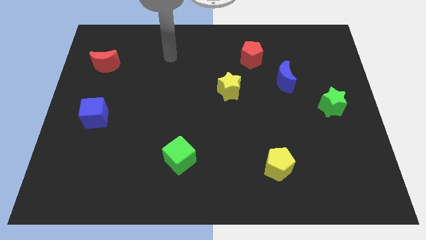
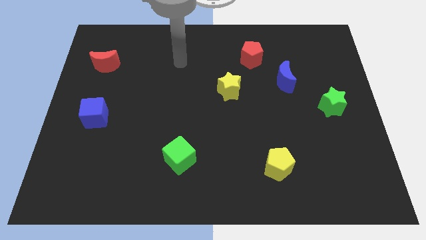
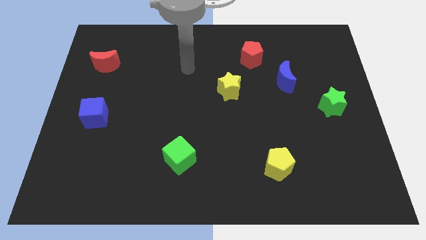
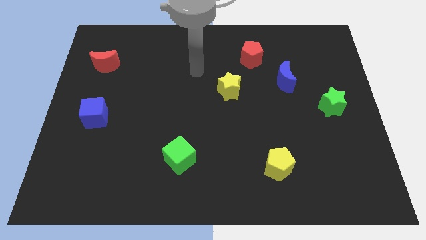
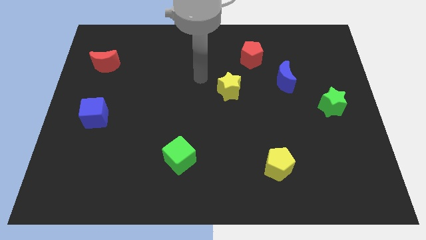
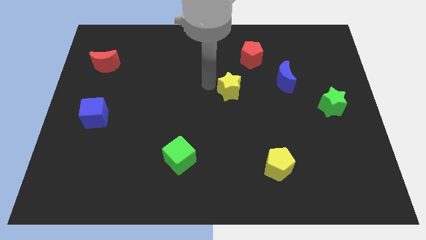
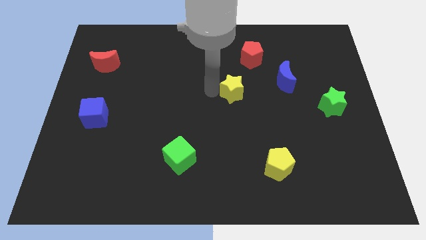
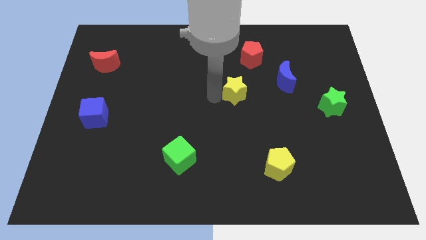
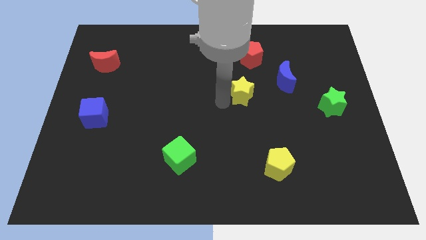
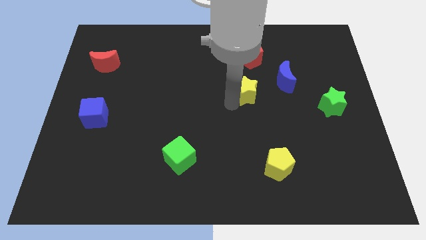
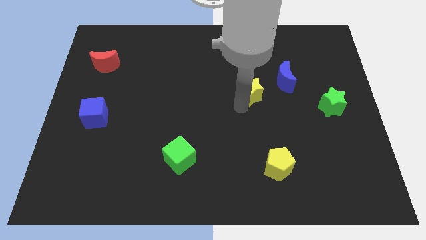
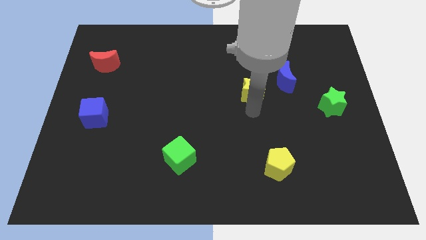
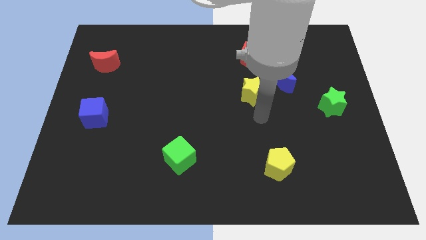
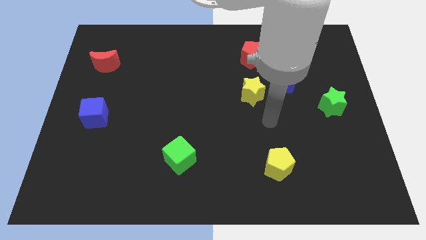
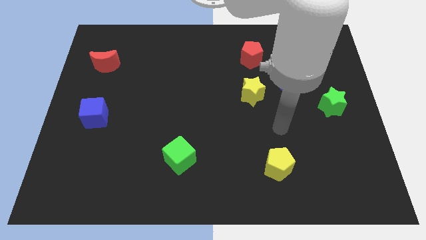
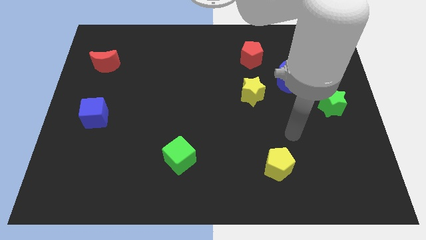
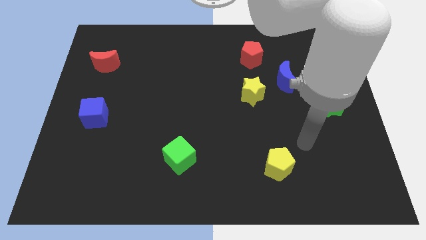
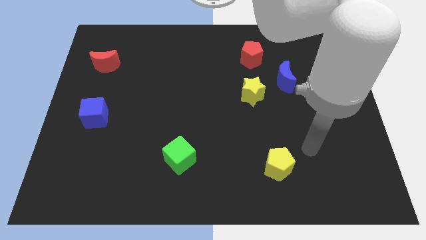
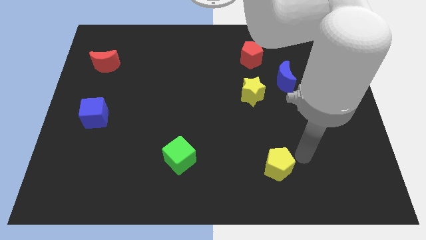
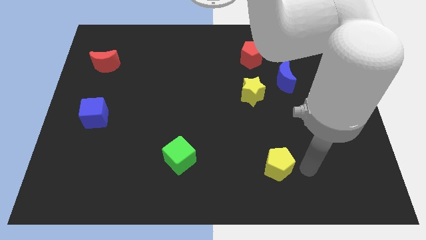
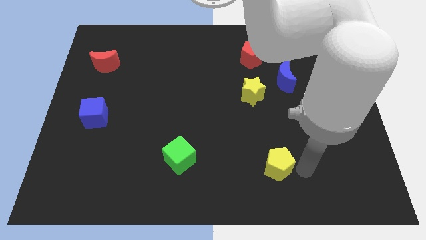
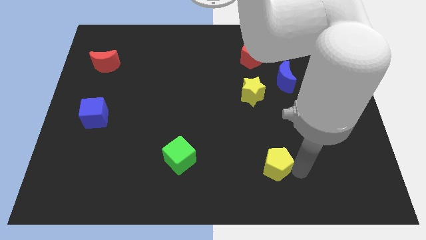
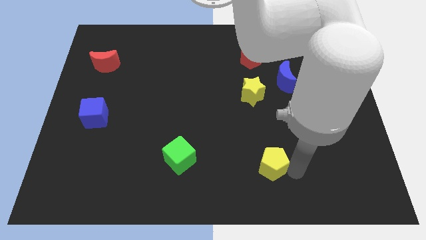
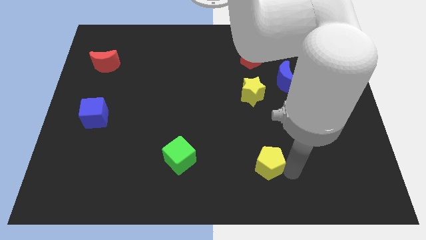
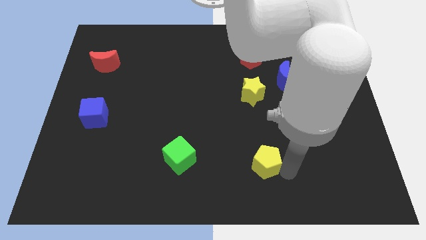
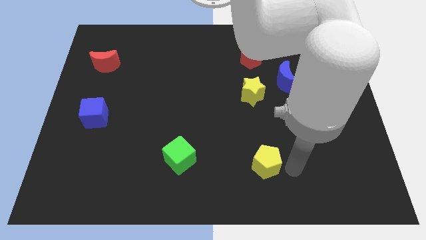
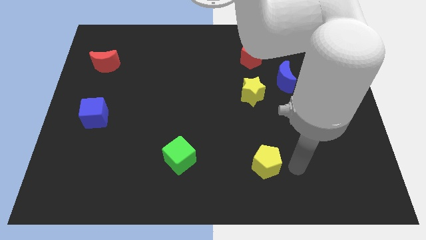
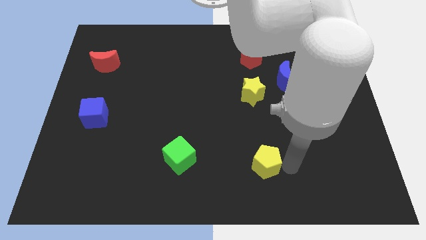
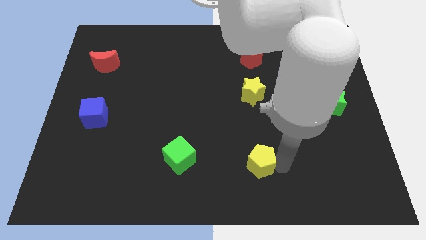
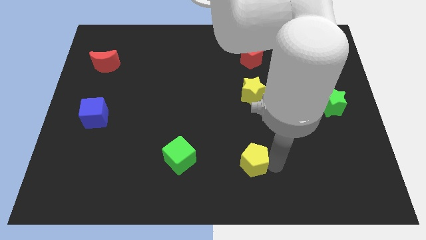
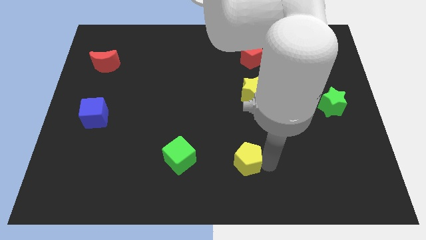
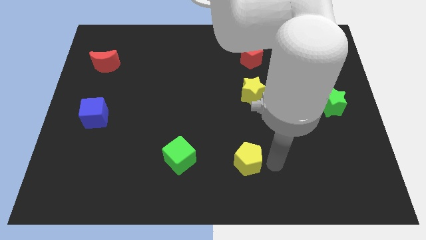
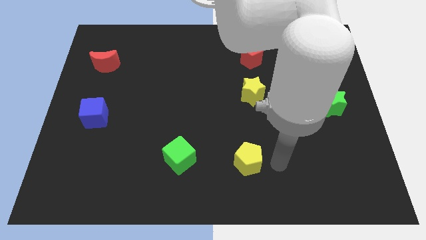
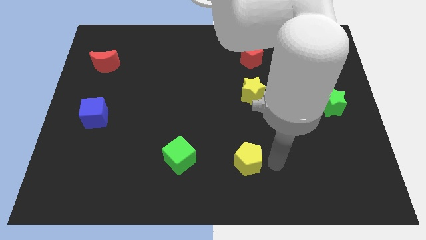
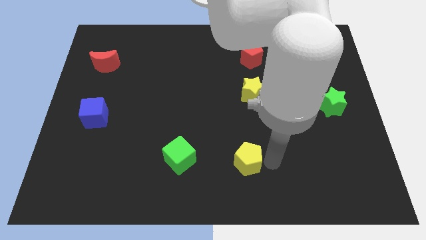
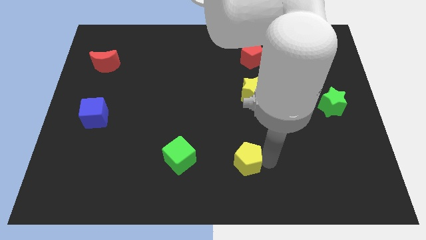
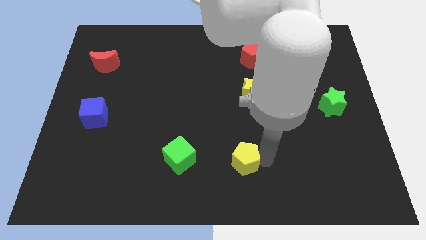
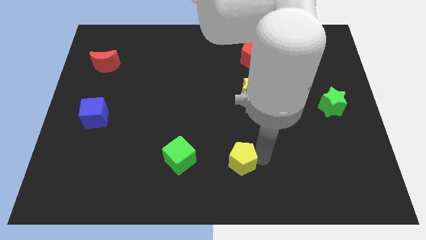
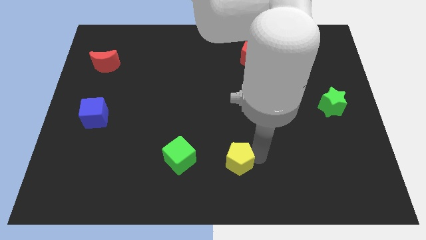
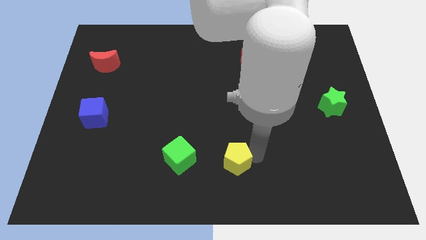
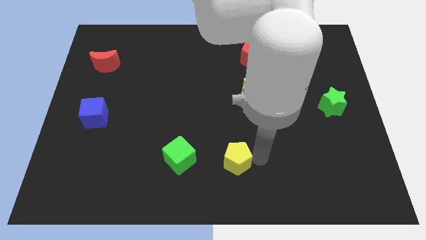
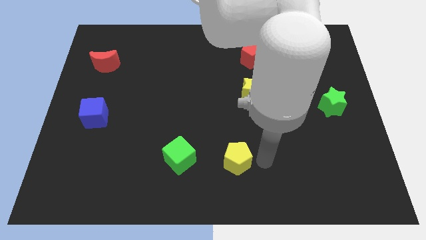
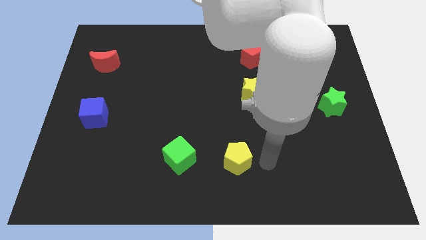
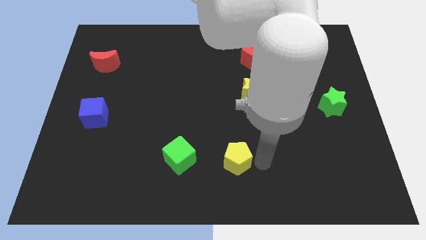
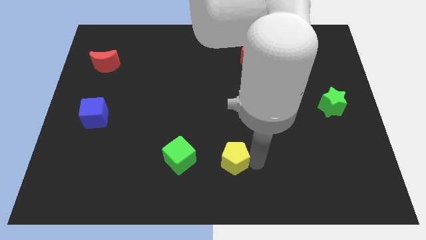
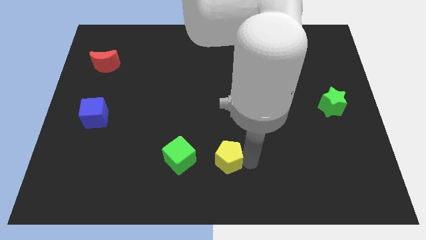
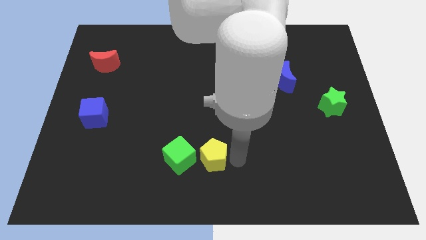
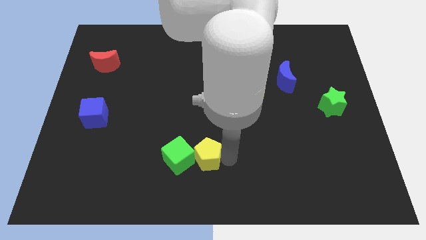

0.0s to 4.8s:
slide the yellow pentagon next to the green cube

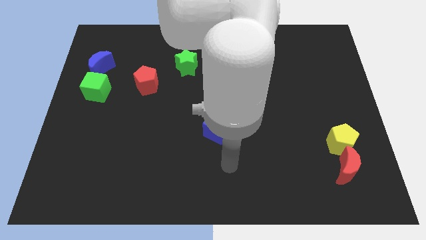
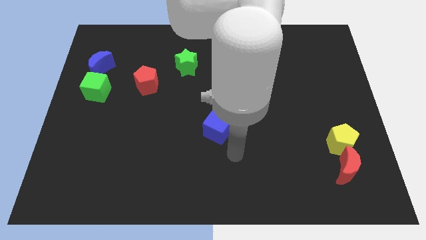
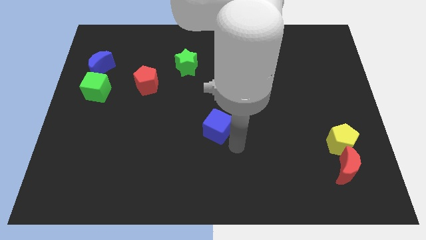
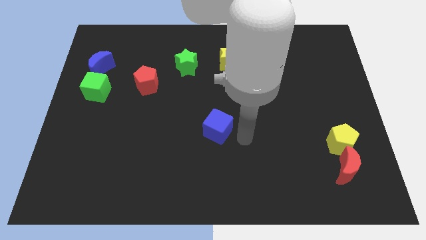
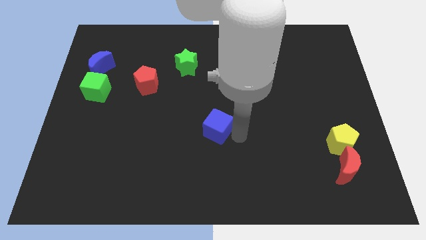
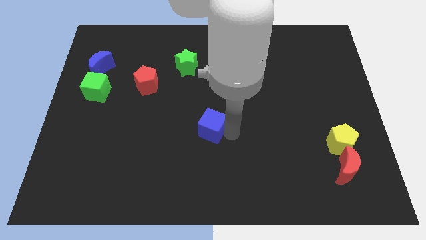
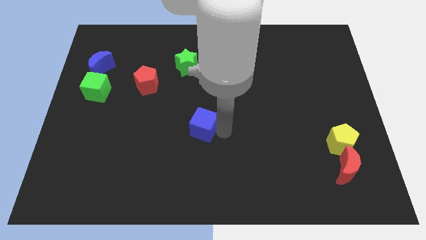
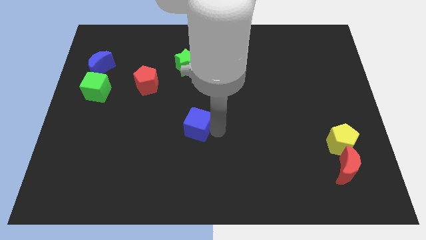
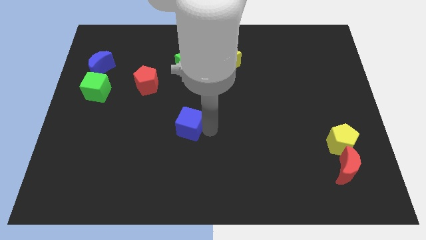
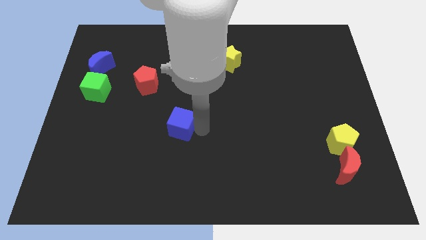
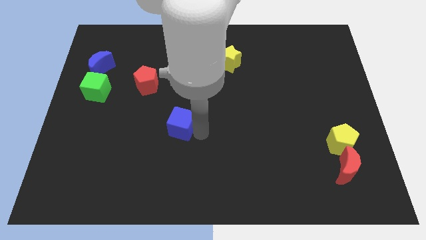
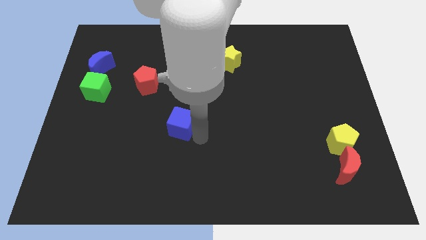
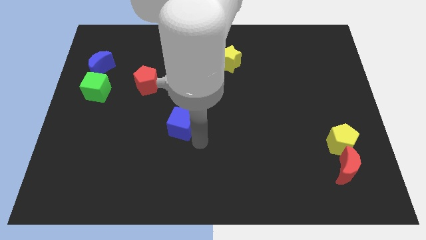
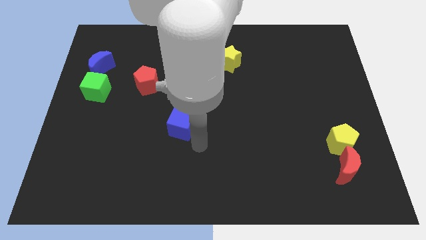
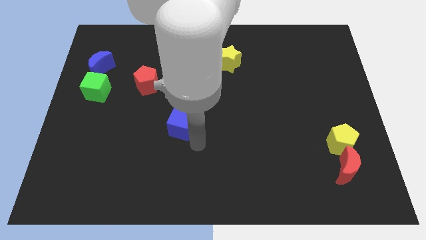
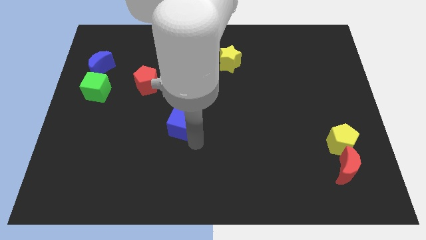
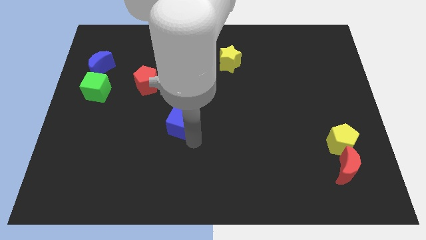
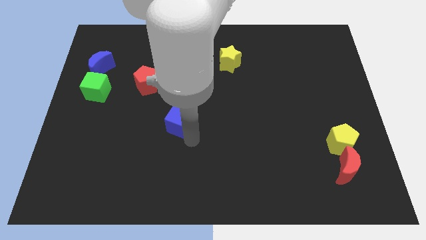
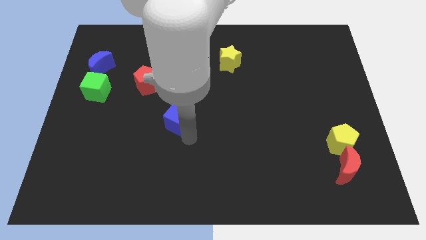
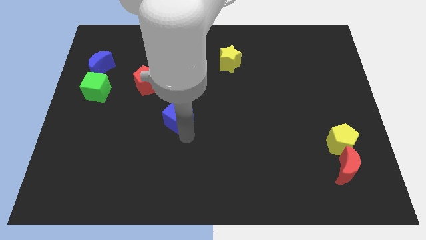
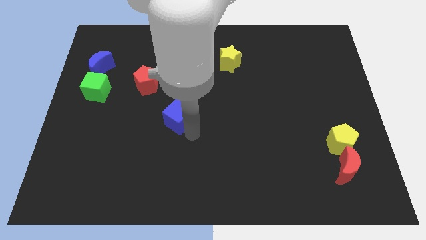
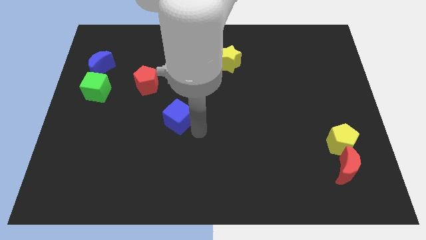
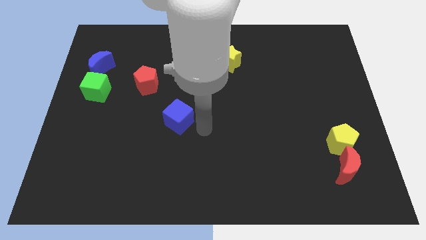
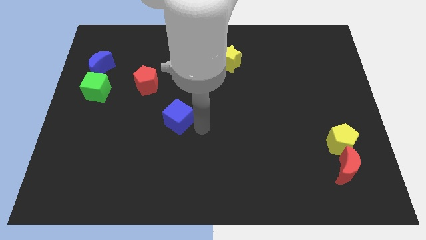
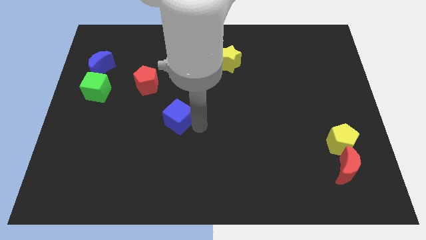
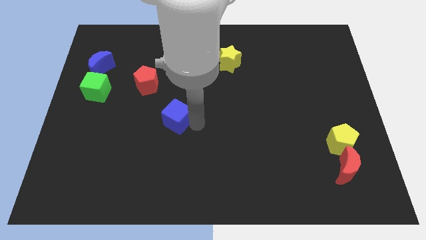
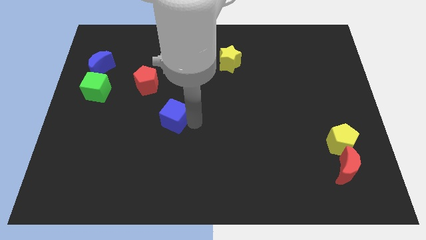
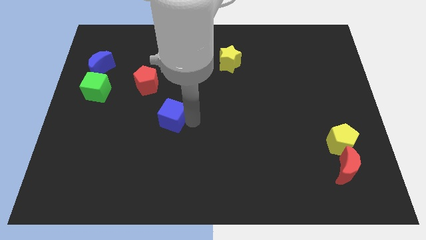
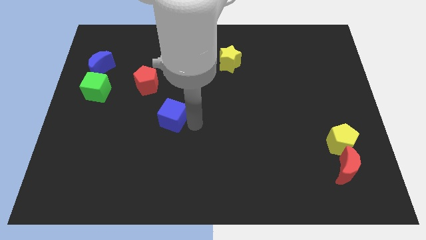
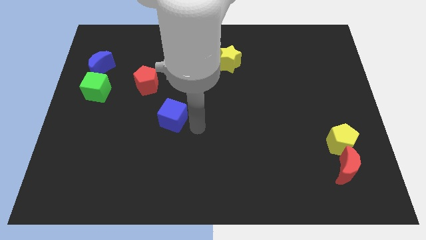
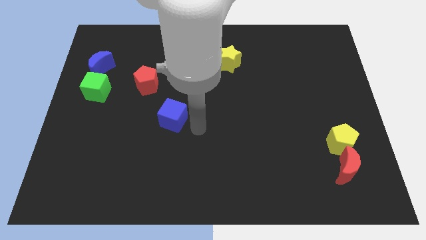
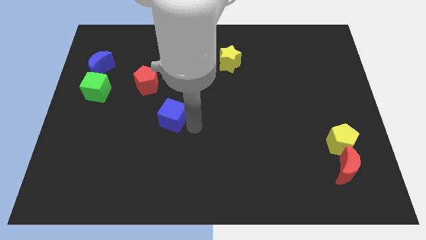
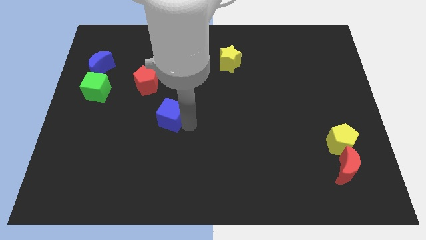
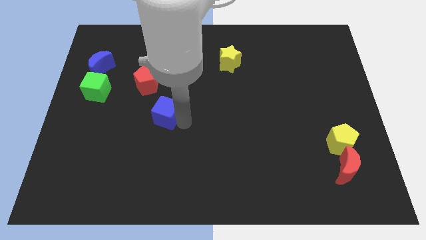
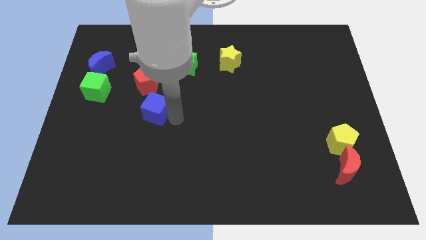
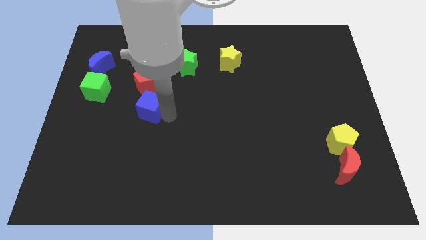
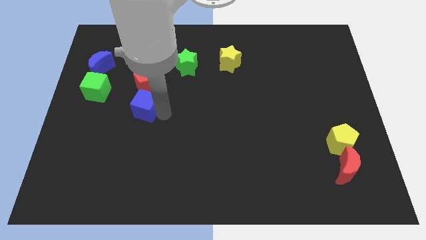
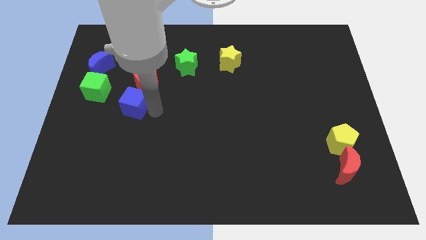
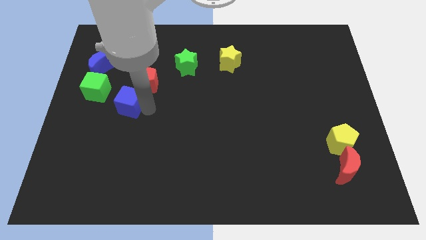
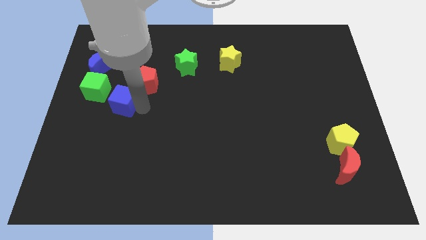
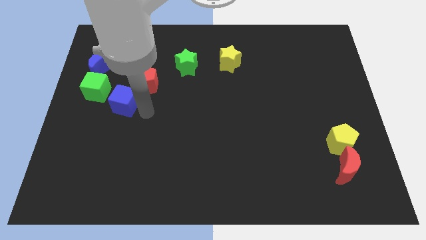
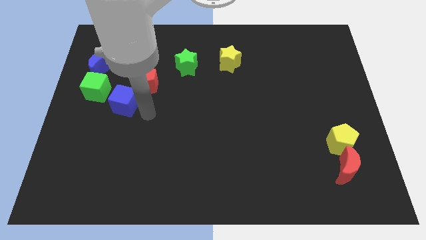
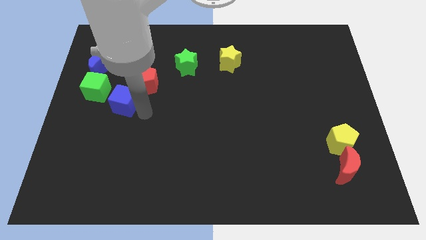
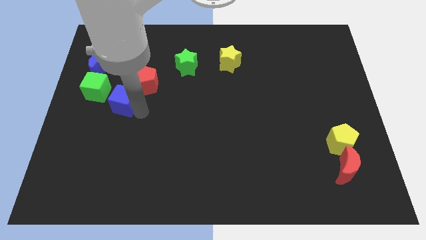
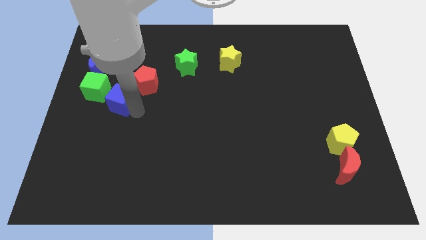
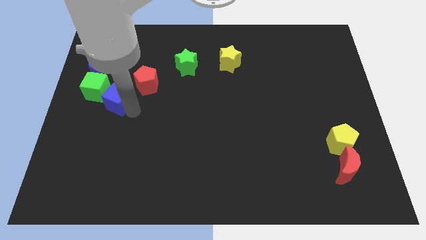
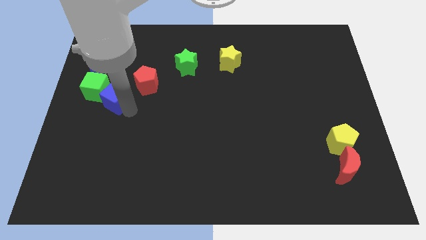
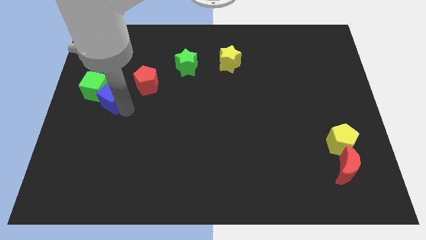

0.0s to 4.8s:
push the blue cube to the green cube
